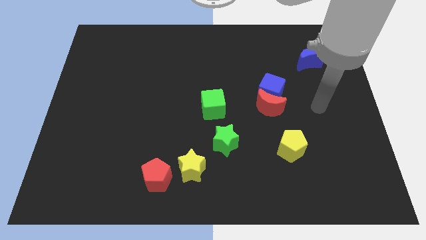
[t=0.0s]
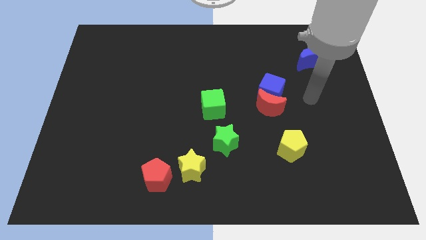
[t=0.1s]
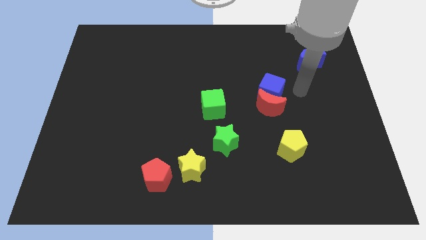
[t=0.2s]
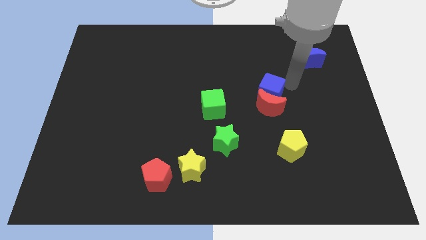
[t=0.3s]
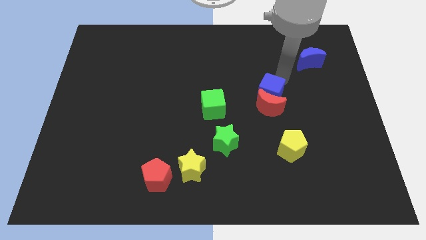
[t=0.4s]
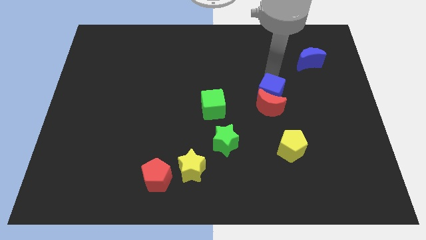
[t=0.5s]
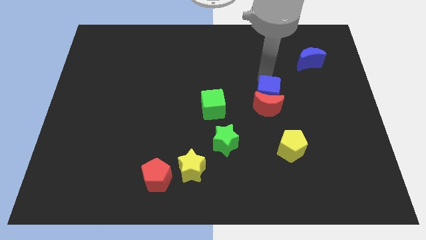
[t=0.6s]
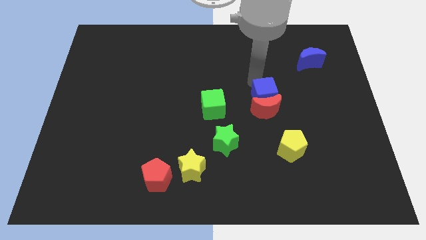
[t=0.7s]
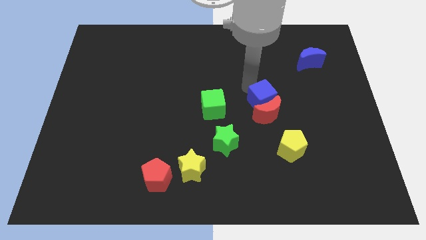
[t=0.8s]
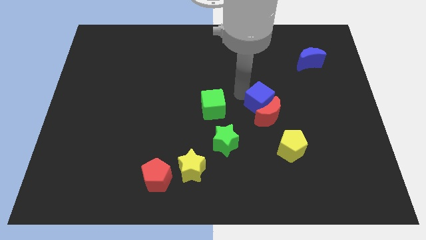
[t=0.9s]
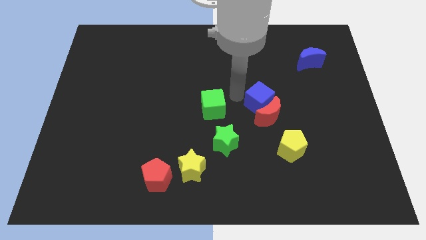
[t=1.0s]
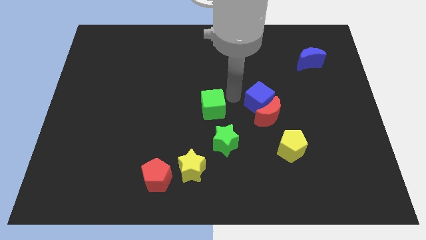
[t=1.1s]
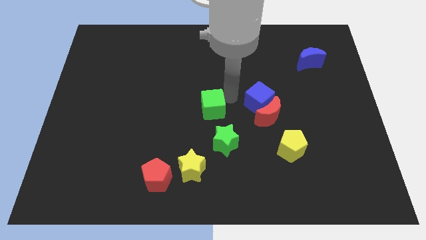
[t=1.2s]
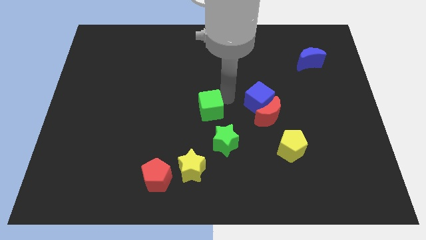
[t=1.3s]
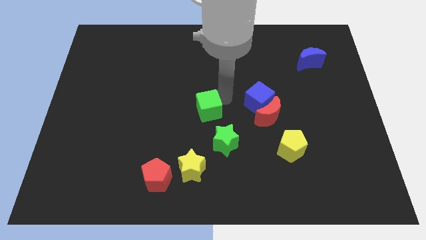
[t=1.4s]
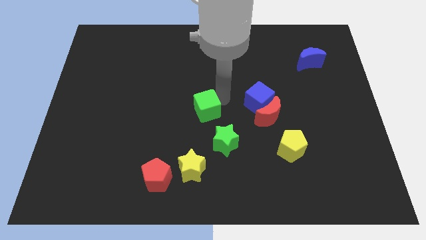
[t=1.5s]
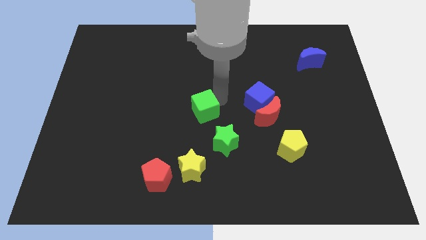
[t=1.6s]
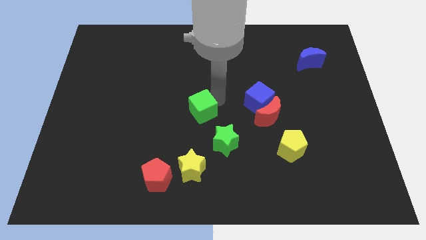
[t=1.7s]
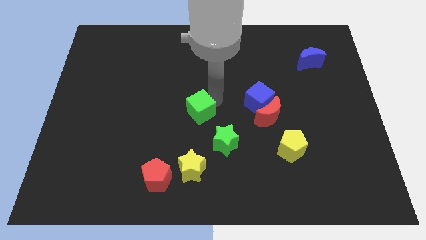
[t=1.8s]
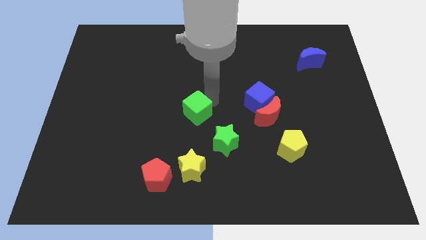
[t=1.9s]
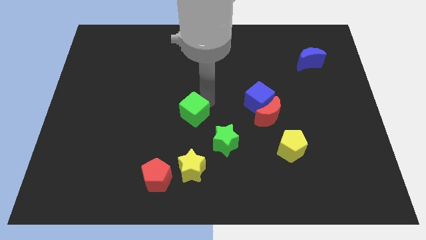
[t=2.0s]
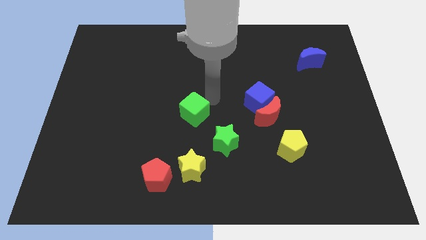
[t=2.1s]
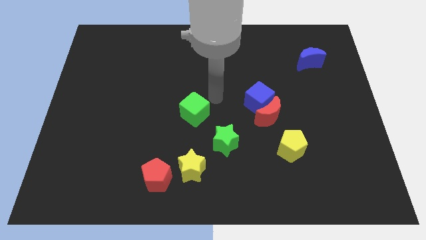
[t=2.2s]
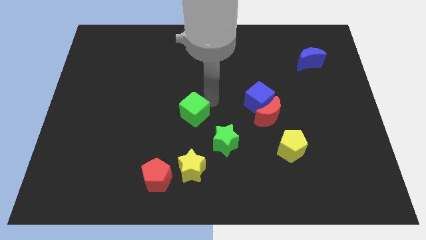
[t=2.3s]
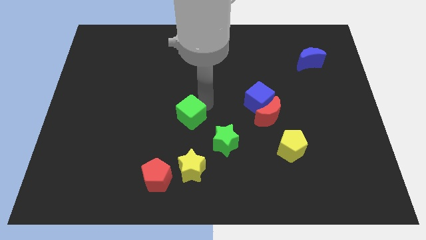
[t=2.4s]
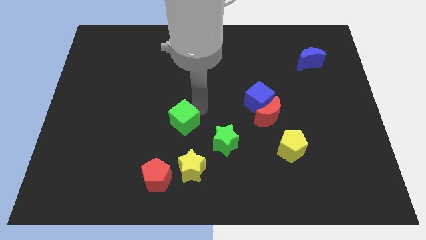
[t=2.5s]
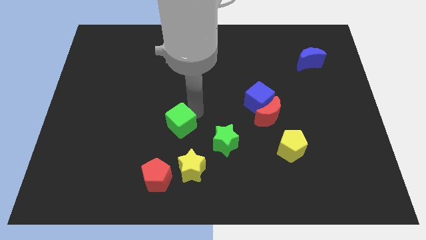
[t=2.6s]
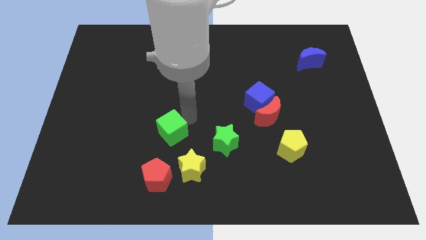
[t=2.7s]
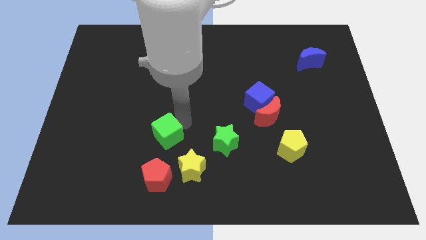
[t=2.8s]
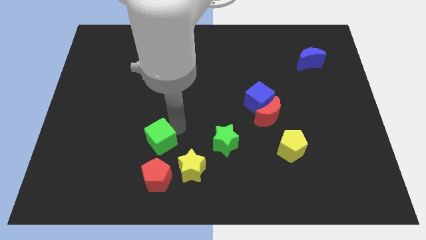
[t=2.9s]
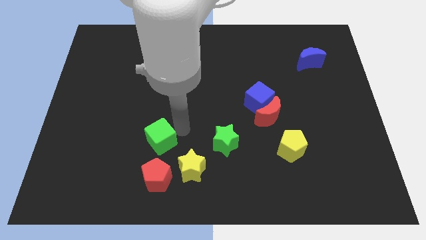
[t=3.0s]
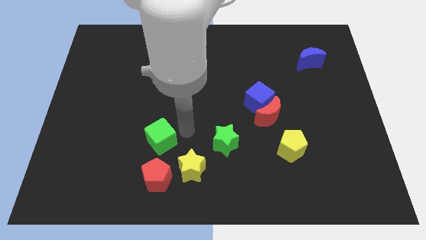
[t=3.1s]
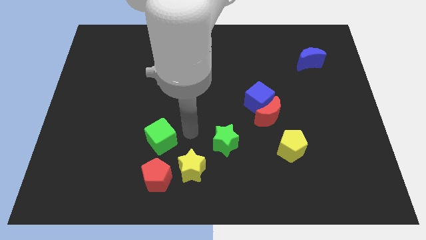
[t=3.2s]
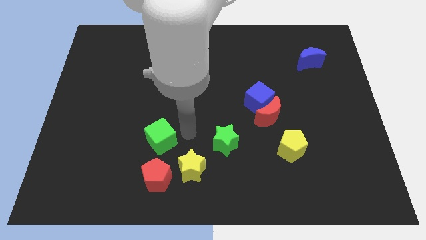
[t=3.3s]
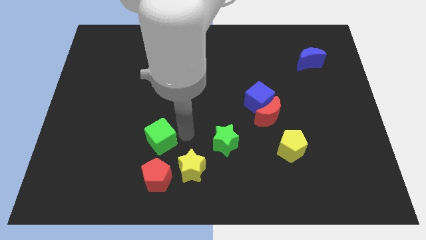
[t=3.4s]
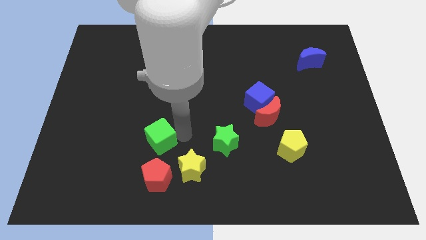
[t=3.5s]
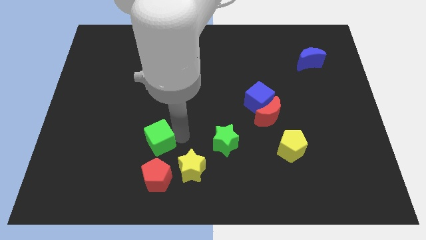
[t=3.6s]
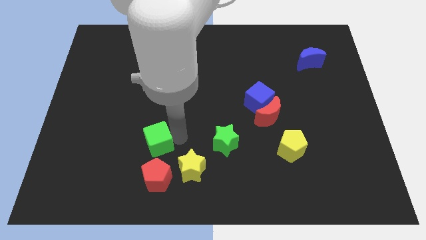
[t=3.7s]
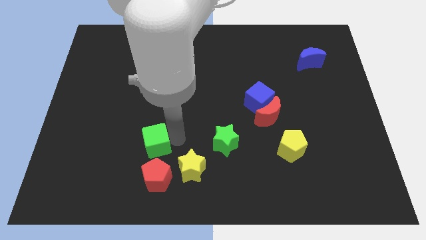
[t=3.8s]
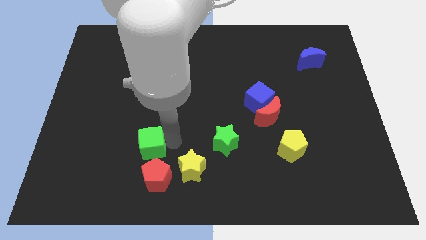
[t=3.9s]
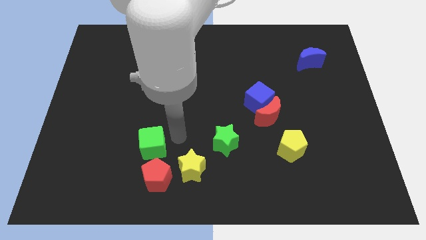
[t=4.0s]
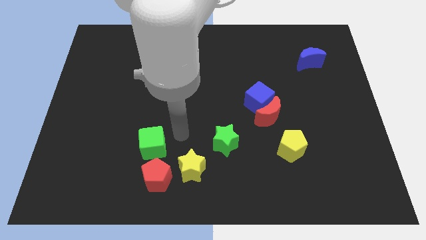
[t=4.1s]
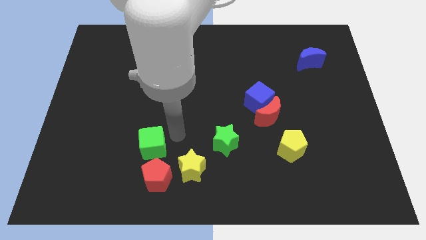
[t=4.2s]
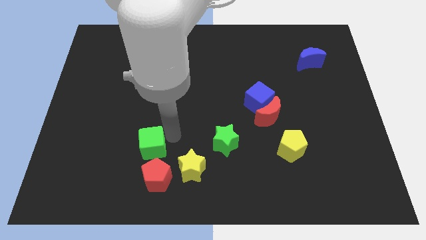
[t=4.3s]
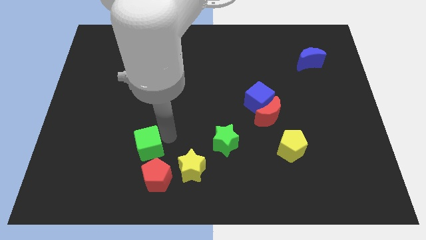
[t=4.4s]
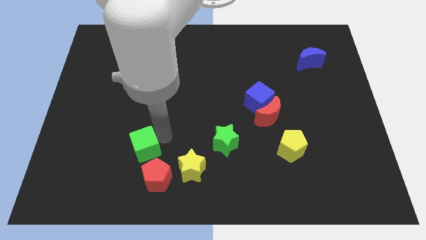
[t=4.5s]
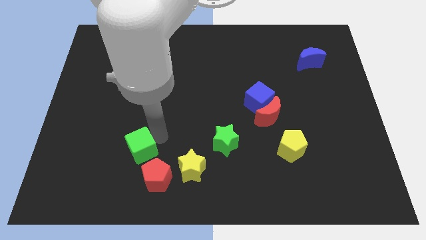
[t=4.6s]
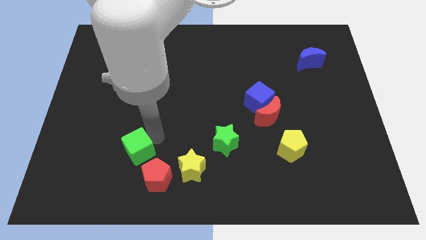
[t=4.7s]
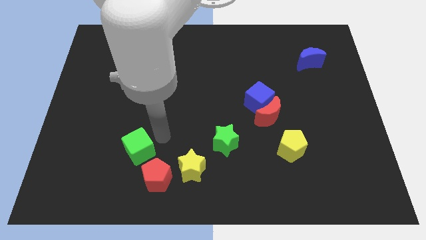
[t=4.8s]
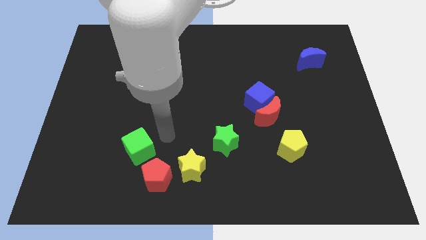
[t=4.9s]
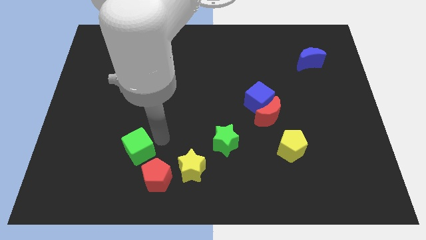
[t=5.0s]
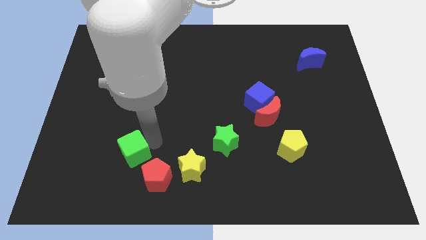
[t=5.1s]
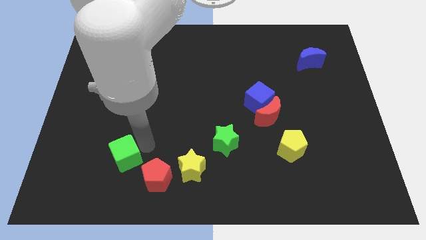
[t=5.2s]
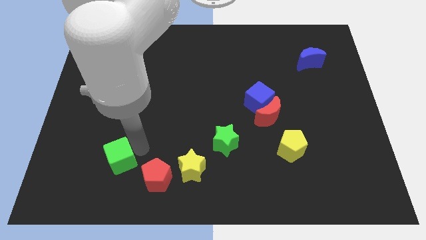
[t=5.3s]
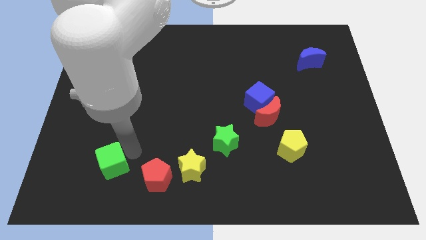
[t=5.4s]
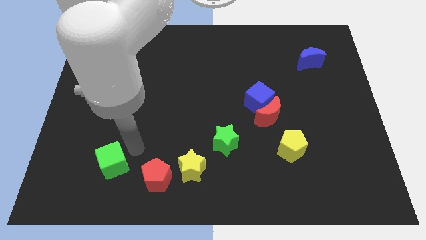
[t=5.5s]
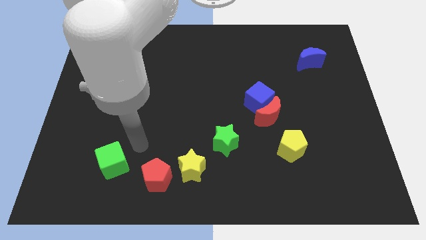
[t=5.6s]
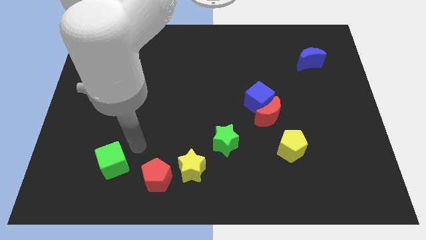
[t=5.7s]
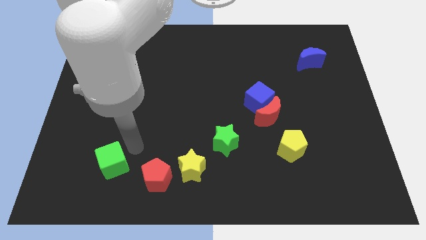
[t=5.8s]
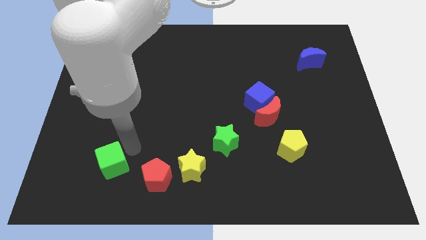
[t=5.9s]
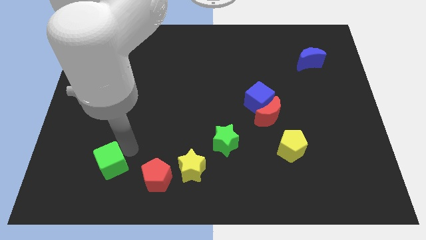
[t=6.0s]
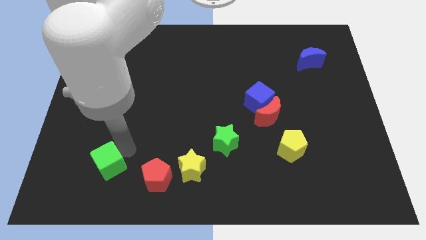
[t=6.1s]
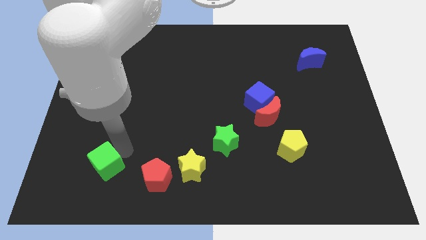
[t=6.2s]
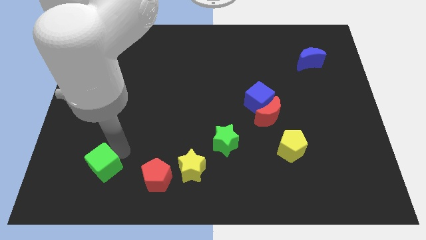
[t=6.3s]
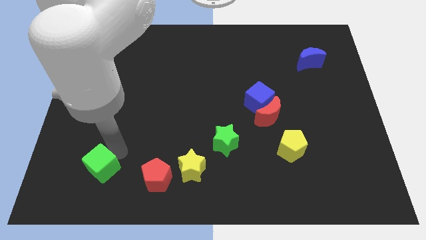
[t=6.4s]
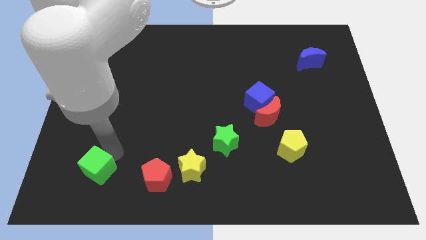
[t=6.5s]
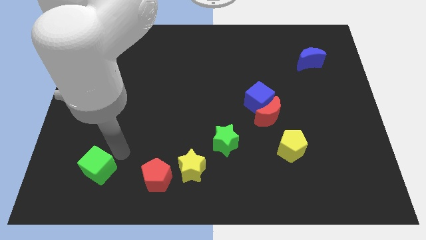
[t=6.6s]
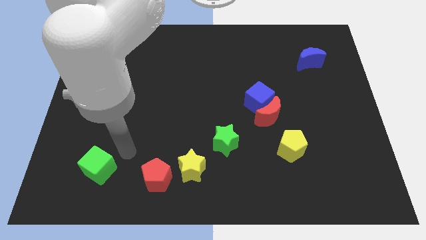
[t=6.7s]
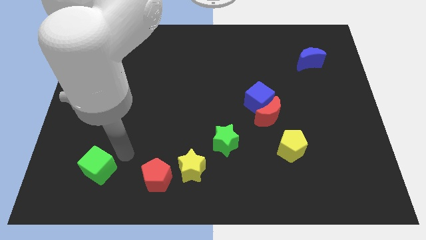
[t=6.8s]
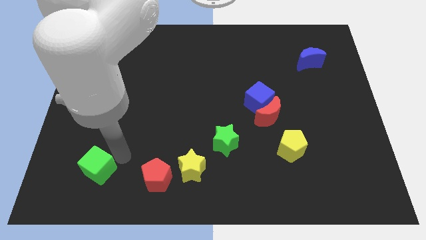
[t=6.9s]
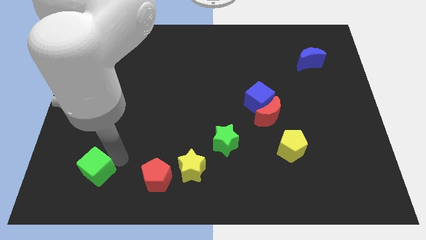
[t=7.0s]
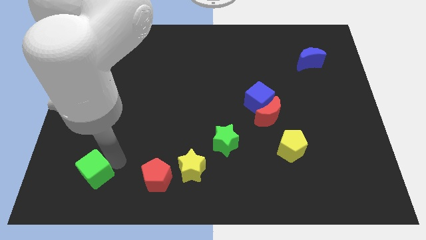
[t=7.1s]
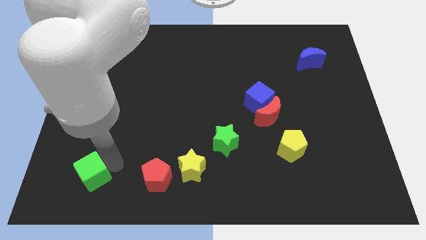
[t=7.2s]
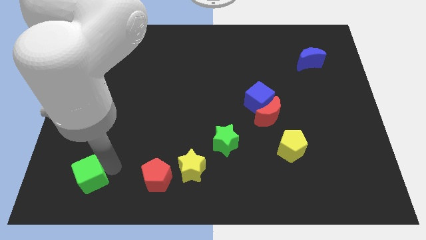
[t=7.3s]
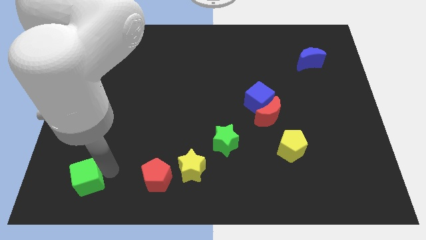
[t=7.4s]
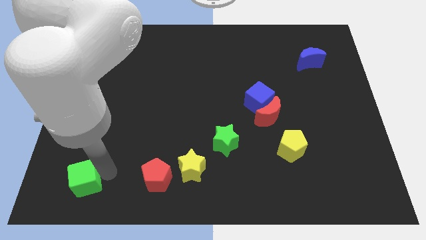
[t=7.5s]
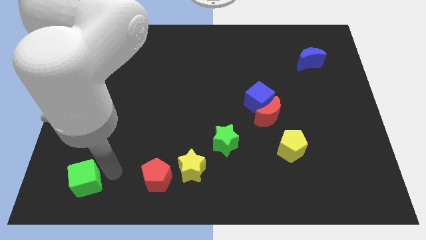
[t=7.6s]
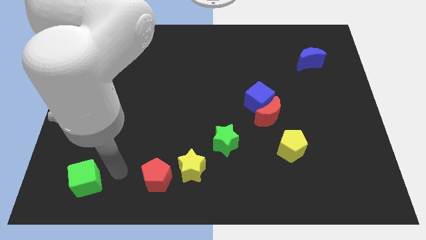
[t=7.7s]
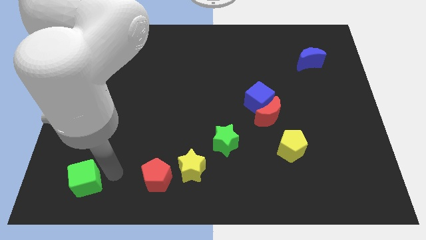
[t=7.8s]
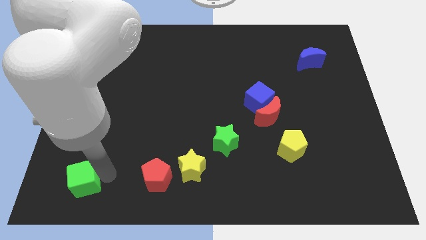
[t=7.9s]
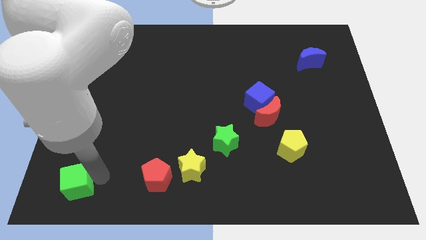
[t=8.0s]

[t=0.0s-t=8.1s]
push the green cube to the lower left corner
